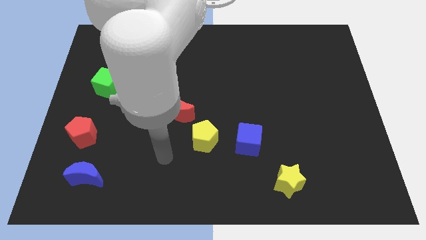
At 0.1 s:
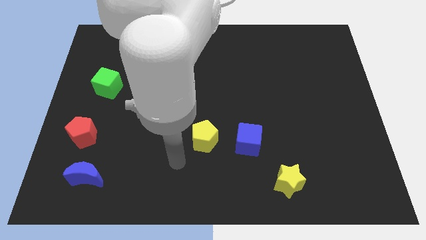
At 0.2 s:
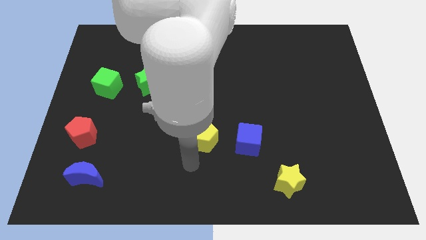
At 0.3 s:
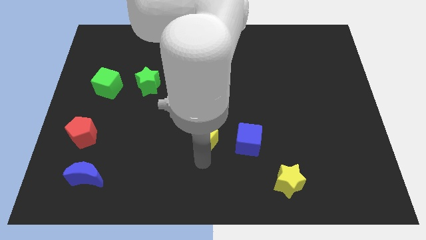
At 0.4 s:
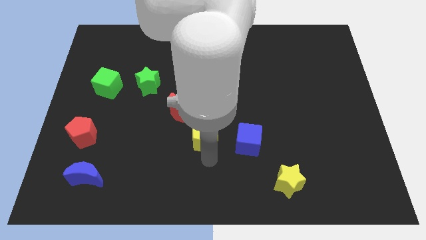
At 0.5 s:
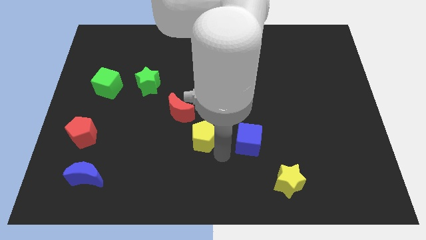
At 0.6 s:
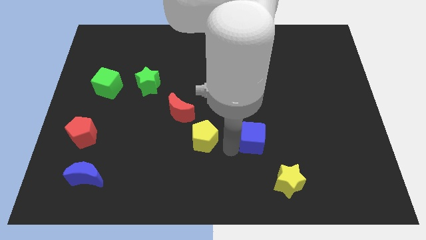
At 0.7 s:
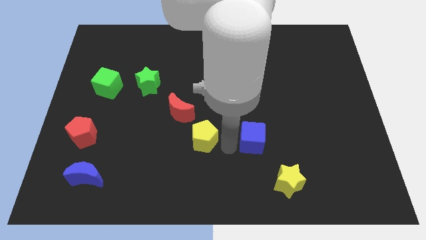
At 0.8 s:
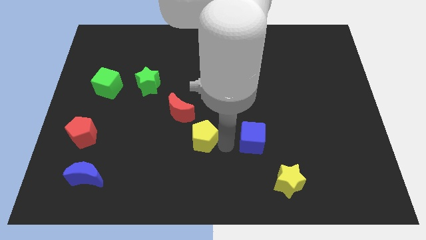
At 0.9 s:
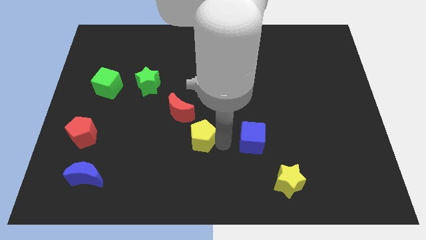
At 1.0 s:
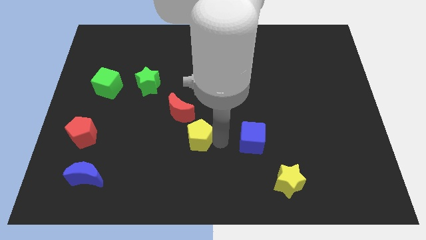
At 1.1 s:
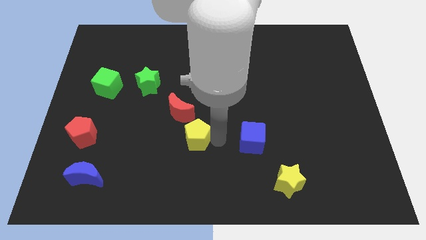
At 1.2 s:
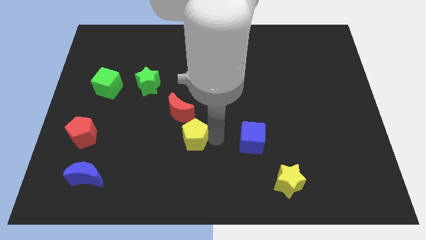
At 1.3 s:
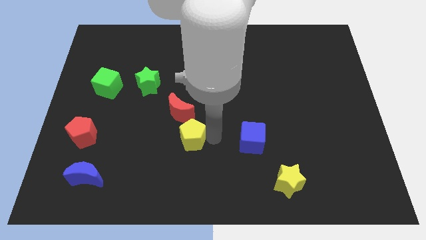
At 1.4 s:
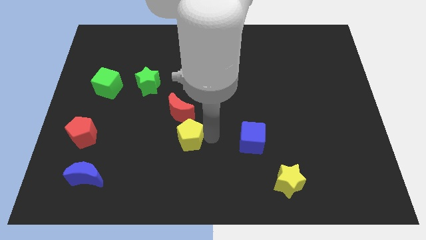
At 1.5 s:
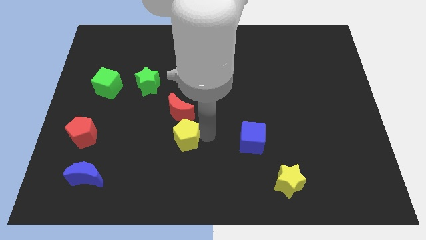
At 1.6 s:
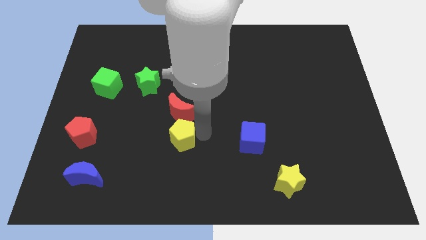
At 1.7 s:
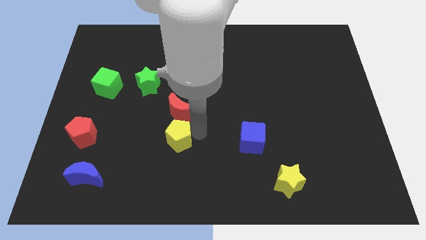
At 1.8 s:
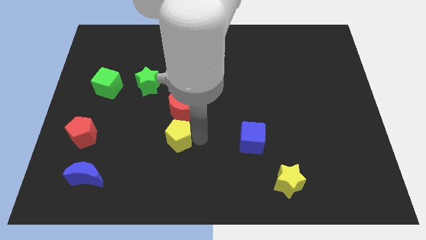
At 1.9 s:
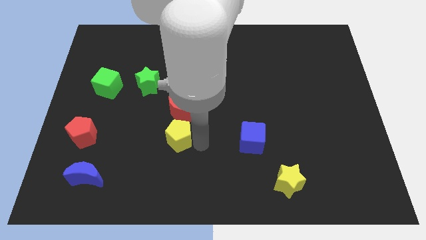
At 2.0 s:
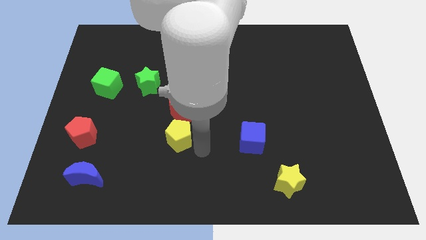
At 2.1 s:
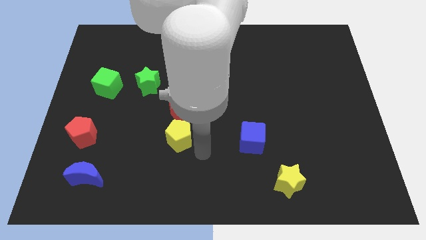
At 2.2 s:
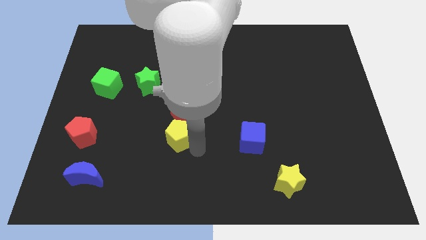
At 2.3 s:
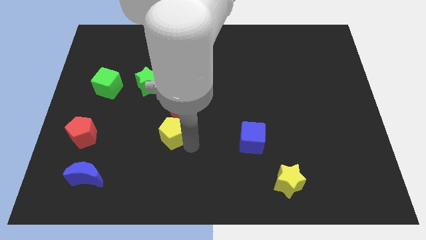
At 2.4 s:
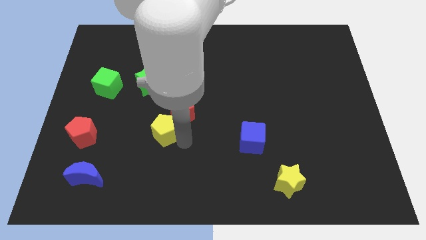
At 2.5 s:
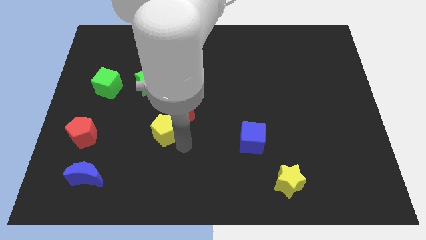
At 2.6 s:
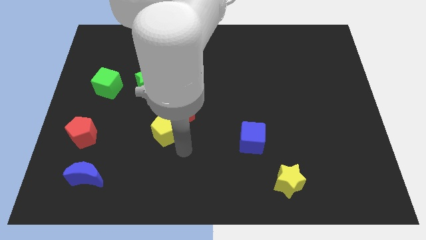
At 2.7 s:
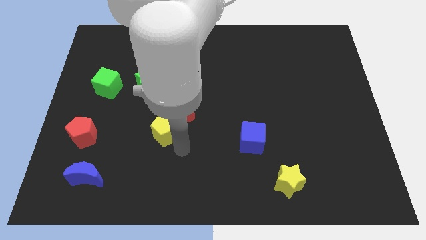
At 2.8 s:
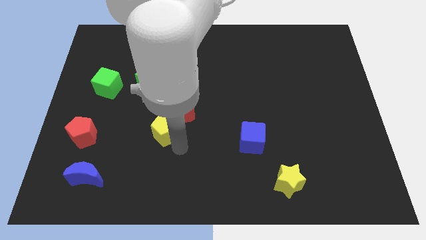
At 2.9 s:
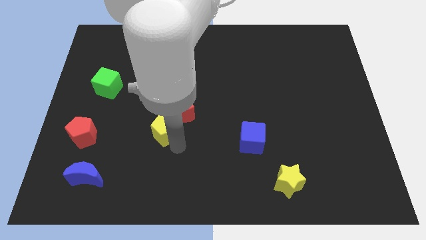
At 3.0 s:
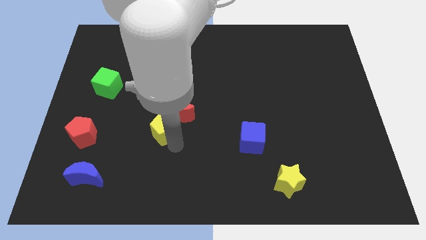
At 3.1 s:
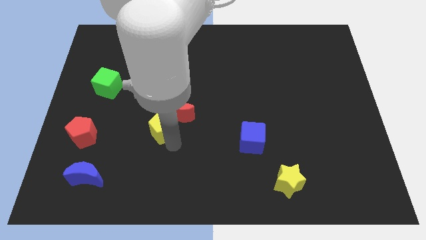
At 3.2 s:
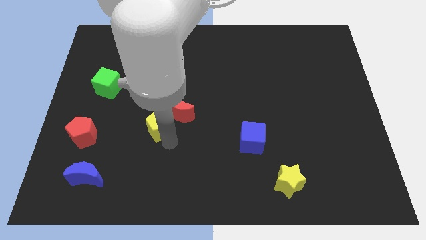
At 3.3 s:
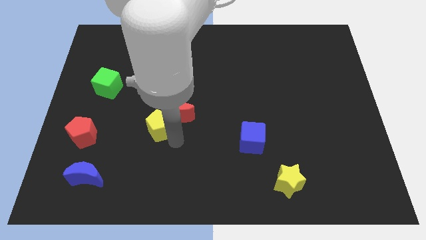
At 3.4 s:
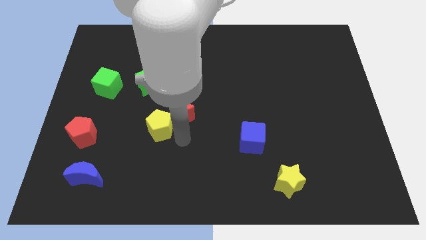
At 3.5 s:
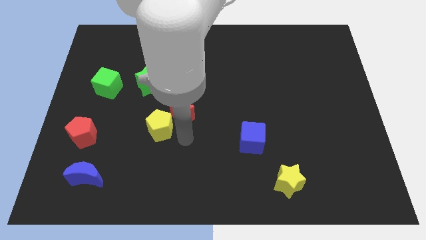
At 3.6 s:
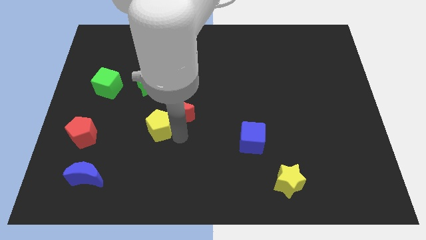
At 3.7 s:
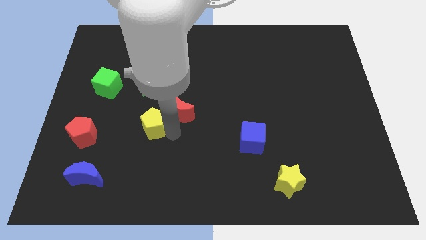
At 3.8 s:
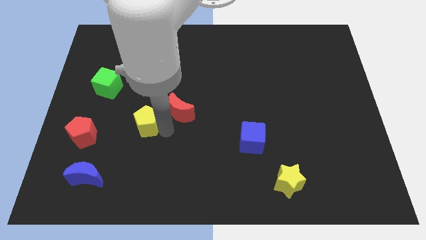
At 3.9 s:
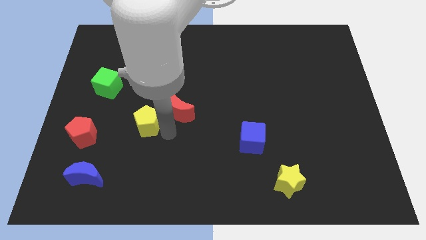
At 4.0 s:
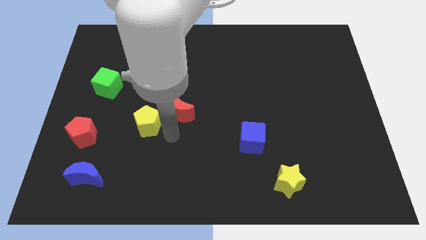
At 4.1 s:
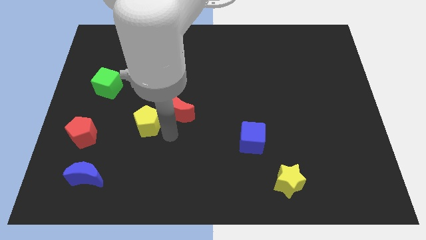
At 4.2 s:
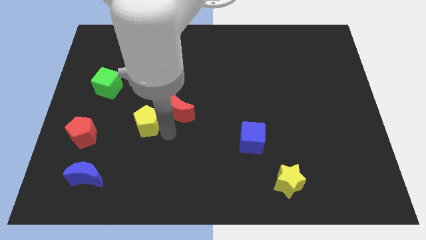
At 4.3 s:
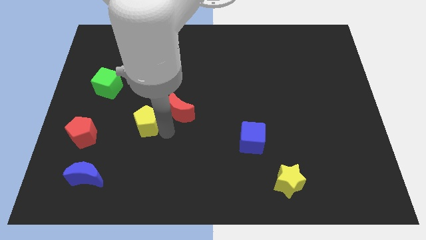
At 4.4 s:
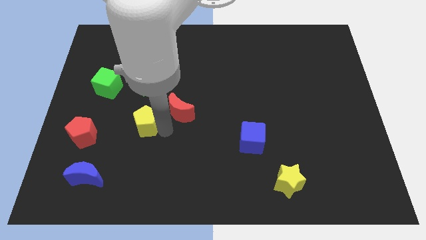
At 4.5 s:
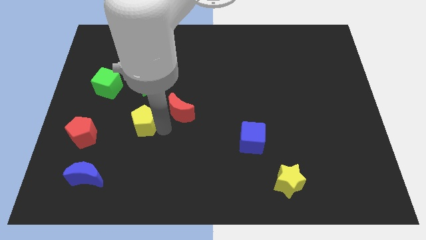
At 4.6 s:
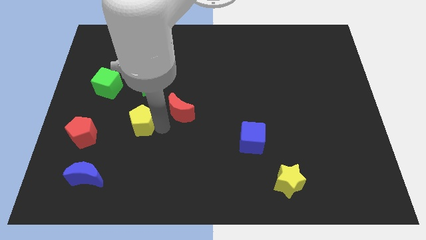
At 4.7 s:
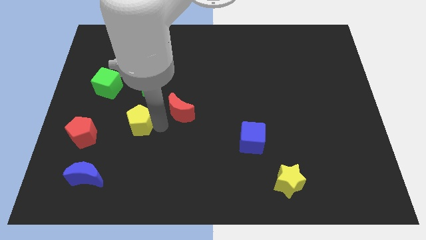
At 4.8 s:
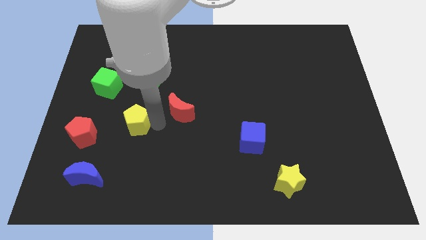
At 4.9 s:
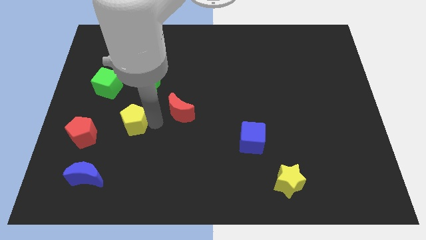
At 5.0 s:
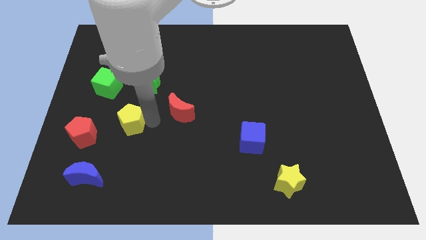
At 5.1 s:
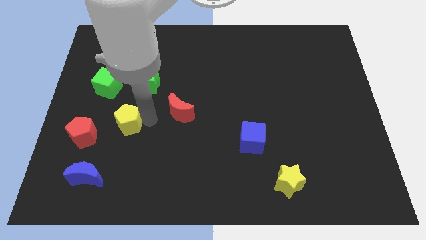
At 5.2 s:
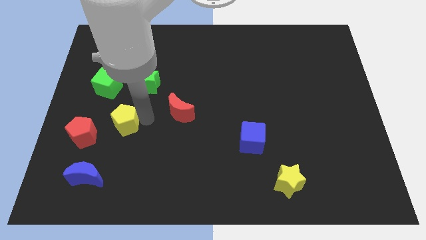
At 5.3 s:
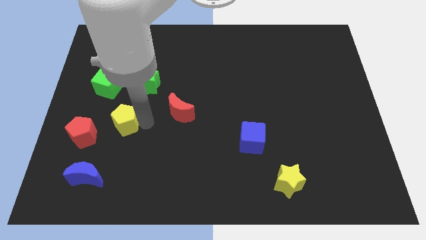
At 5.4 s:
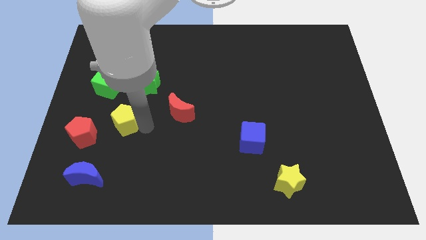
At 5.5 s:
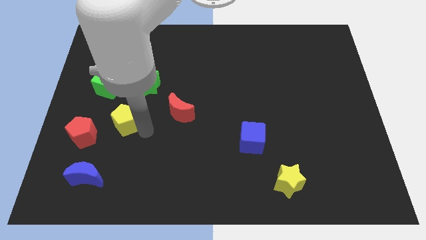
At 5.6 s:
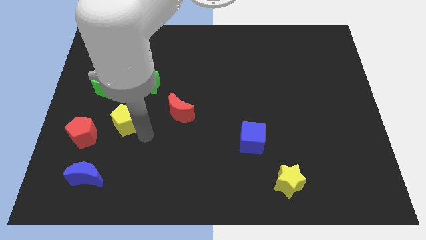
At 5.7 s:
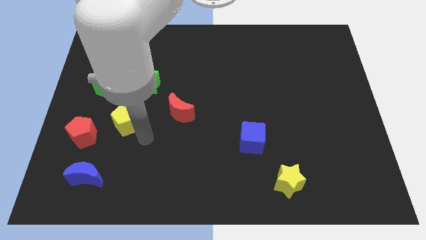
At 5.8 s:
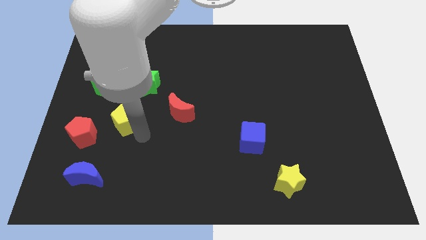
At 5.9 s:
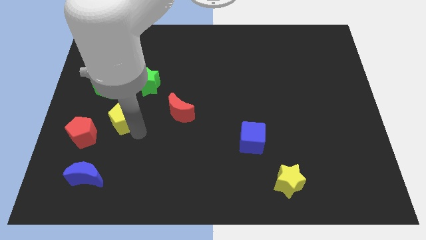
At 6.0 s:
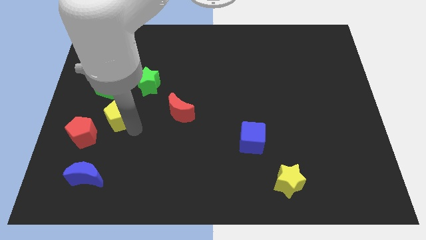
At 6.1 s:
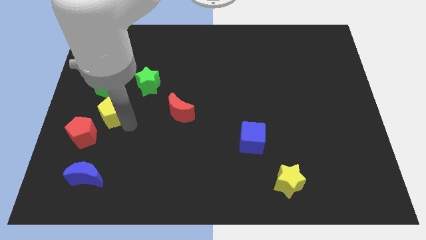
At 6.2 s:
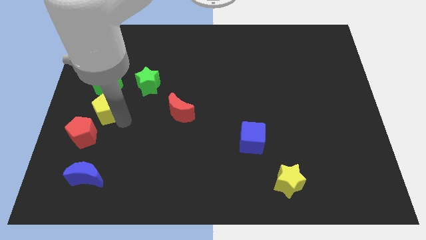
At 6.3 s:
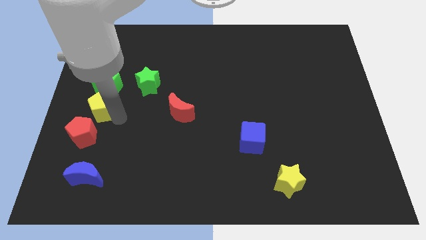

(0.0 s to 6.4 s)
push the yellow pentagon to the left side of the board

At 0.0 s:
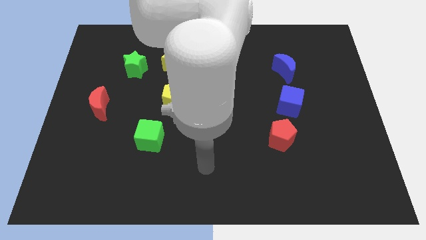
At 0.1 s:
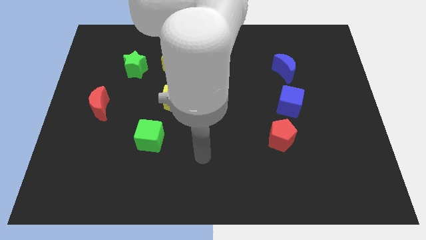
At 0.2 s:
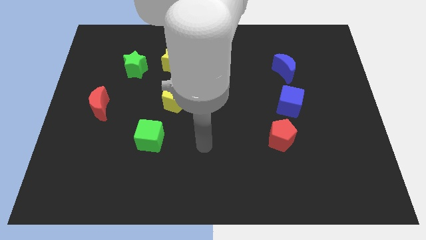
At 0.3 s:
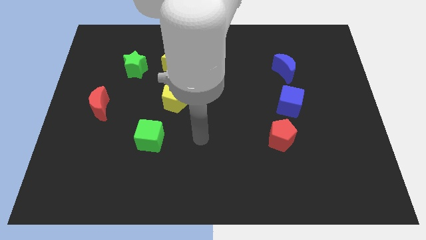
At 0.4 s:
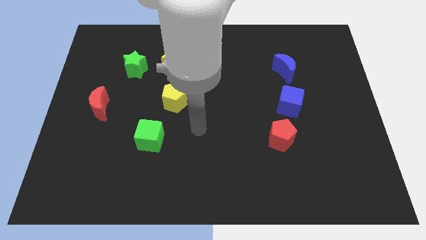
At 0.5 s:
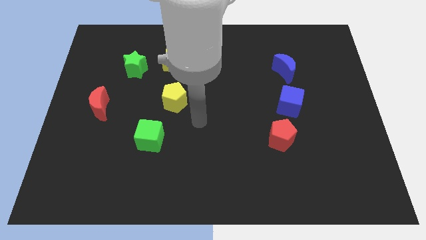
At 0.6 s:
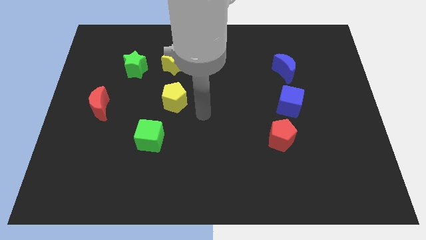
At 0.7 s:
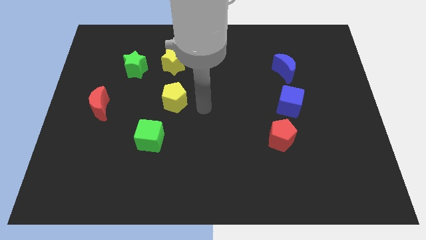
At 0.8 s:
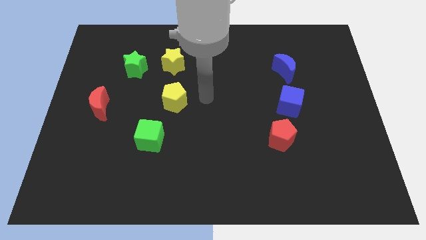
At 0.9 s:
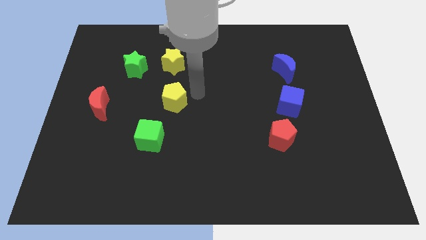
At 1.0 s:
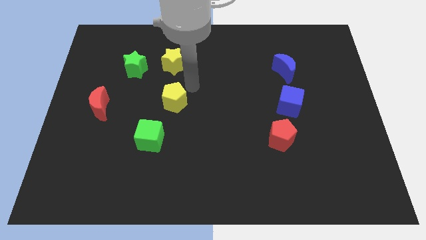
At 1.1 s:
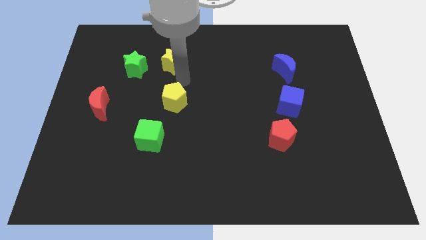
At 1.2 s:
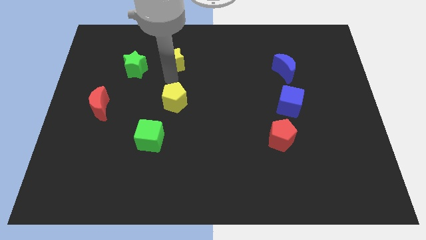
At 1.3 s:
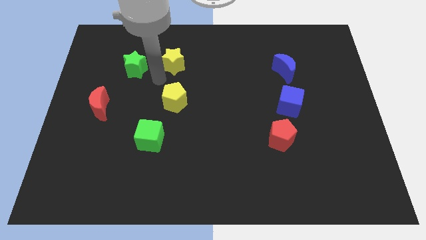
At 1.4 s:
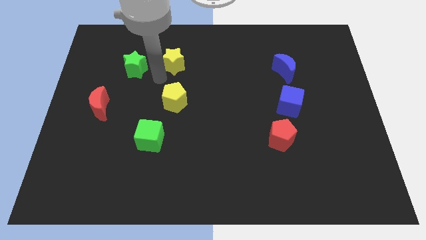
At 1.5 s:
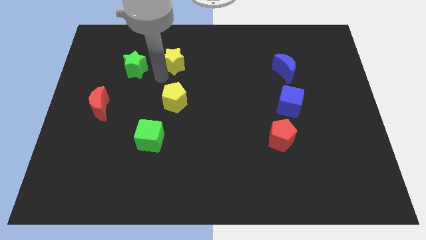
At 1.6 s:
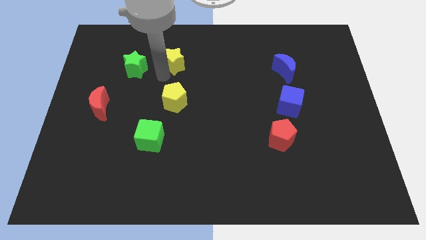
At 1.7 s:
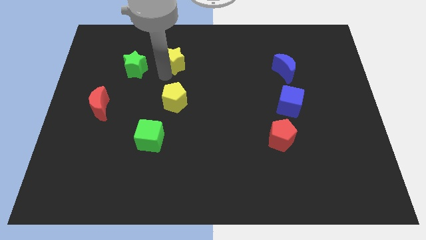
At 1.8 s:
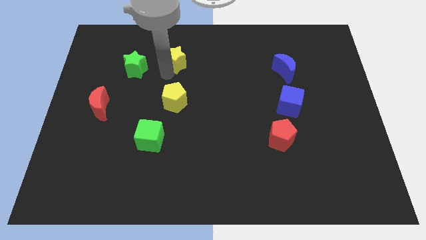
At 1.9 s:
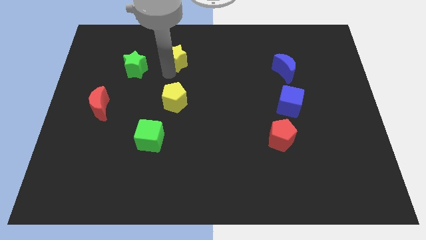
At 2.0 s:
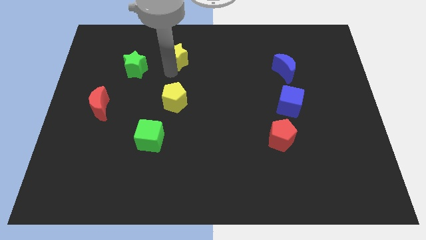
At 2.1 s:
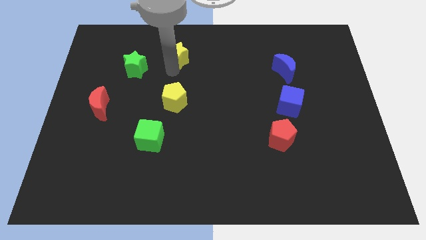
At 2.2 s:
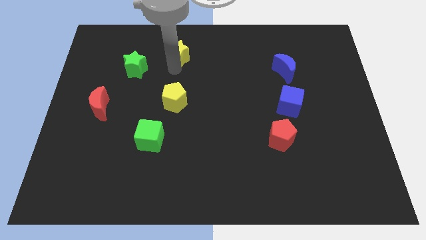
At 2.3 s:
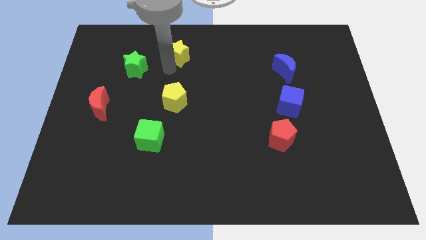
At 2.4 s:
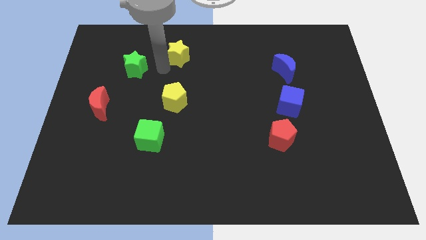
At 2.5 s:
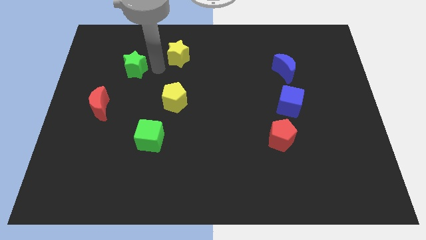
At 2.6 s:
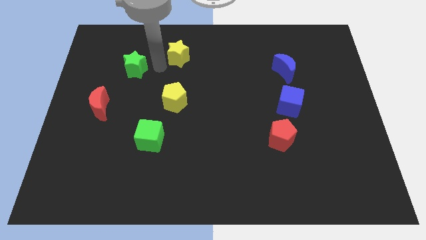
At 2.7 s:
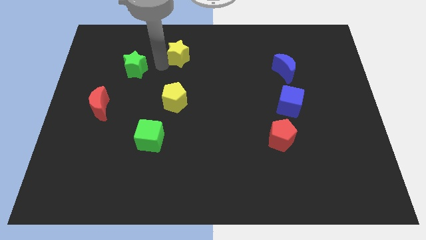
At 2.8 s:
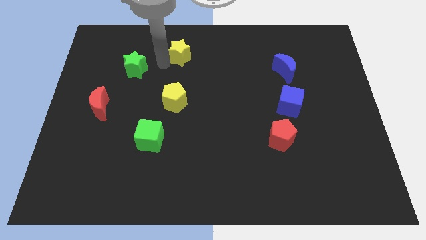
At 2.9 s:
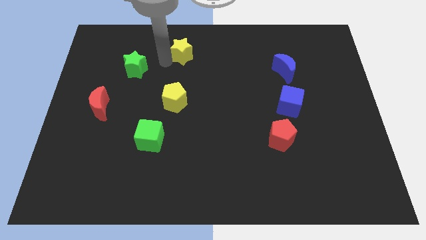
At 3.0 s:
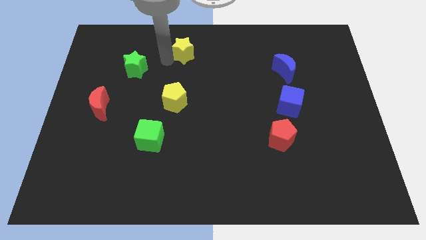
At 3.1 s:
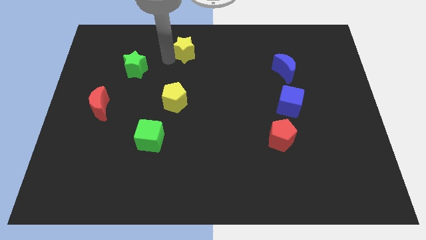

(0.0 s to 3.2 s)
slide the yellow star to the top
